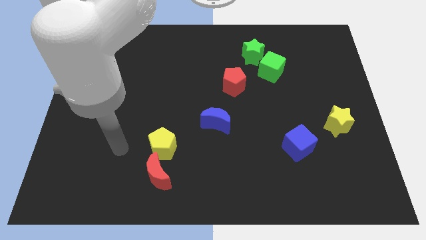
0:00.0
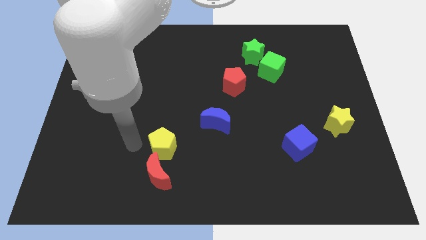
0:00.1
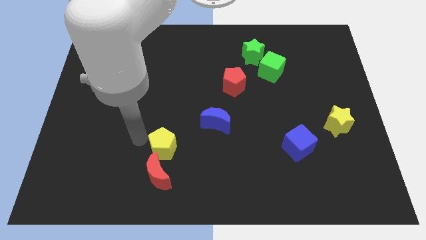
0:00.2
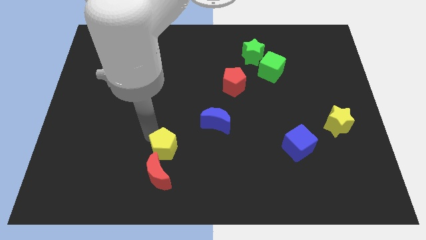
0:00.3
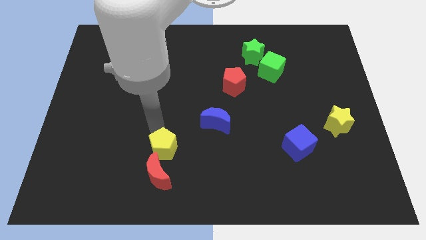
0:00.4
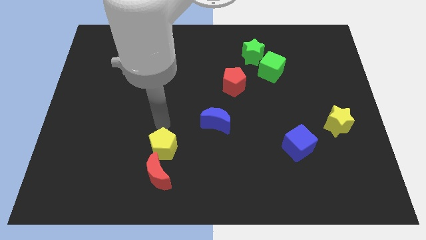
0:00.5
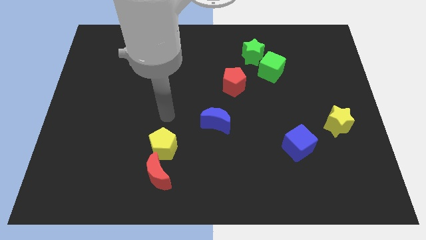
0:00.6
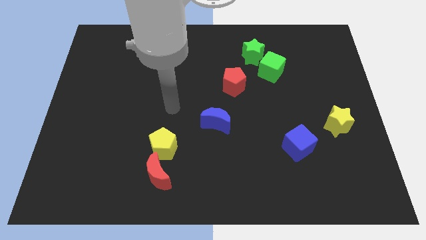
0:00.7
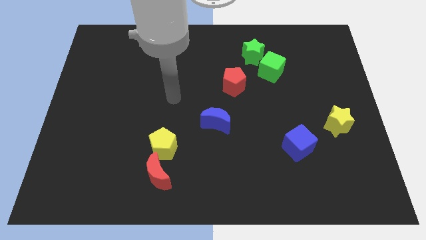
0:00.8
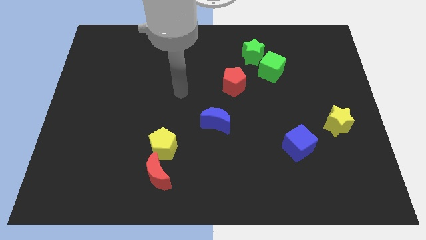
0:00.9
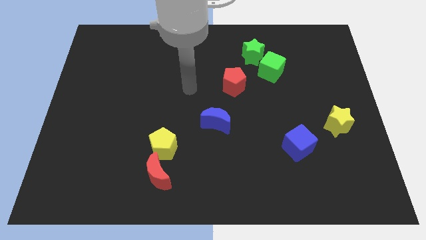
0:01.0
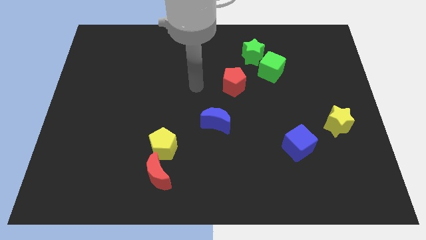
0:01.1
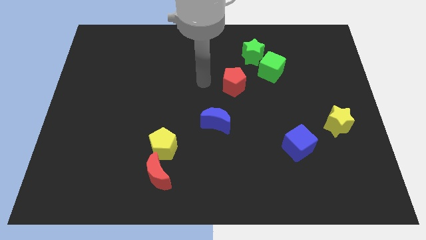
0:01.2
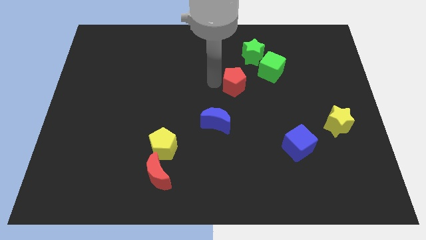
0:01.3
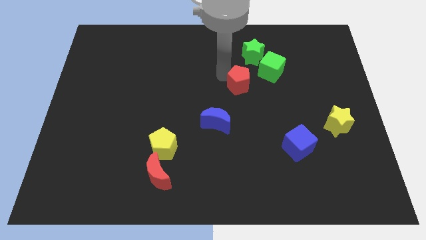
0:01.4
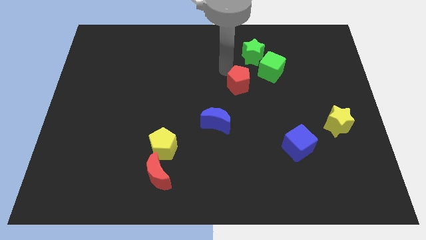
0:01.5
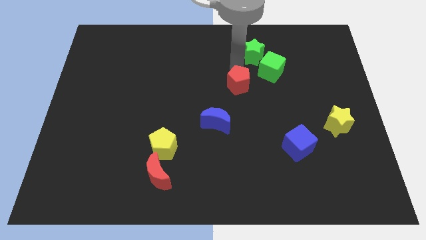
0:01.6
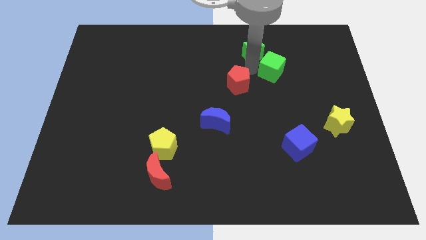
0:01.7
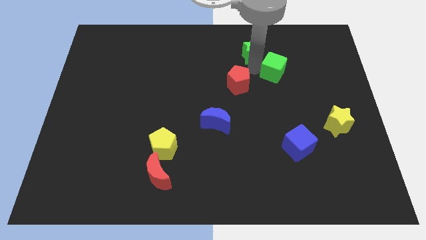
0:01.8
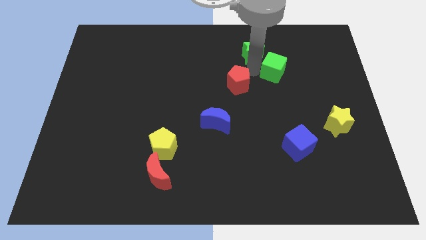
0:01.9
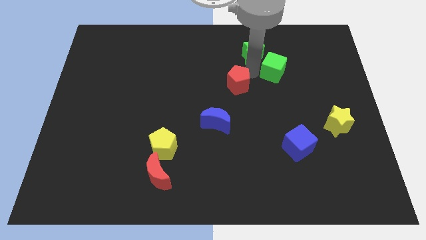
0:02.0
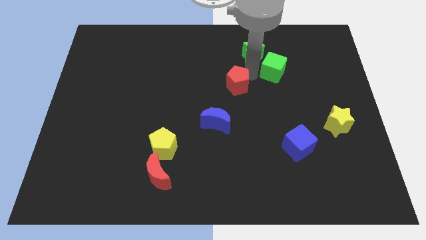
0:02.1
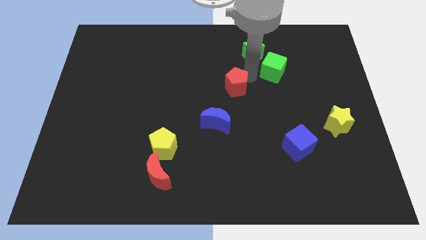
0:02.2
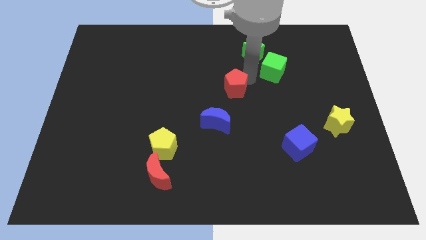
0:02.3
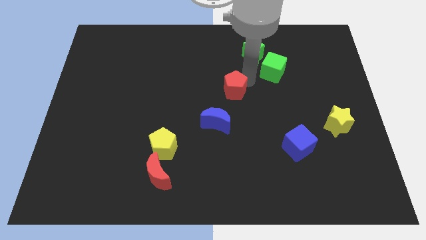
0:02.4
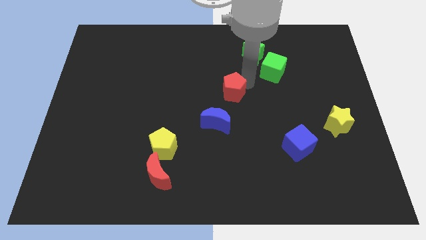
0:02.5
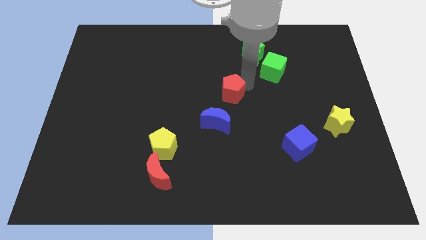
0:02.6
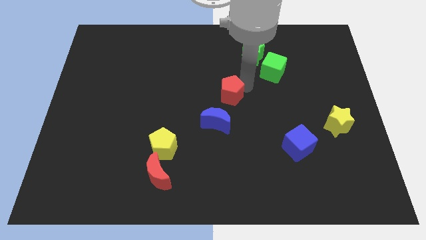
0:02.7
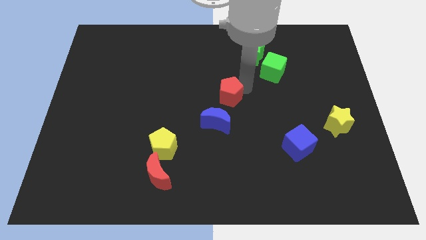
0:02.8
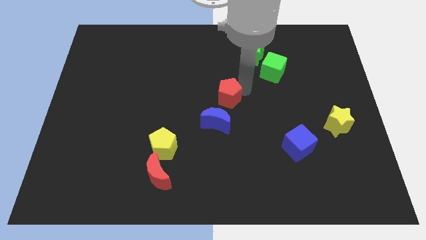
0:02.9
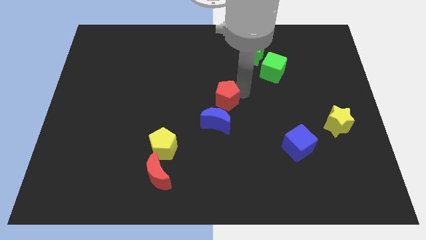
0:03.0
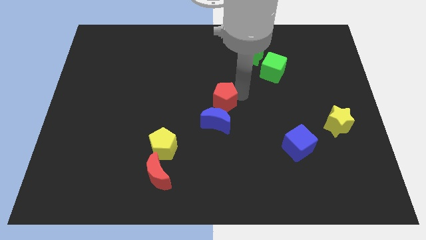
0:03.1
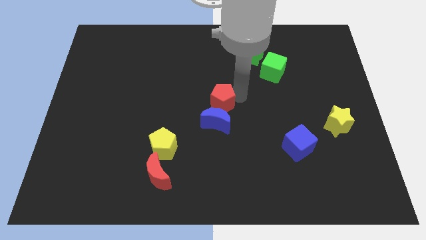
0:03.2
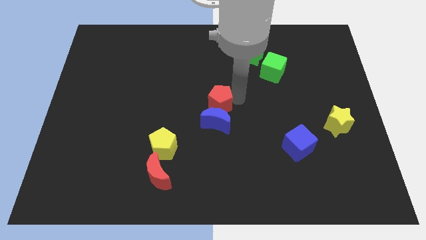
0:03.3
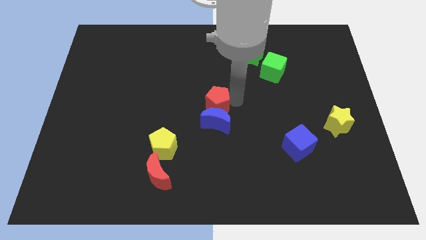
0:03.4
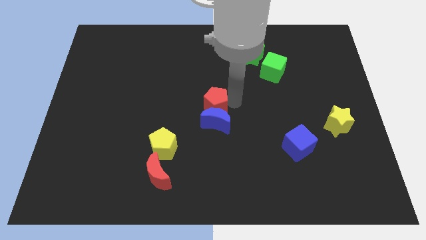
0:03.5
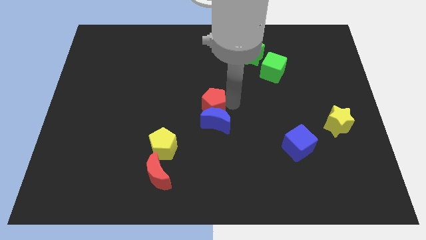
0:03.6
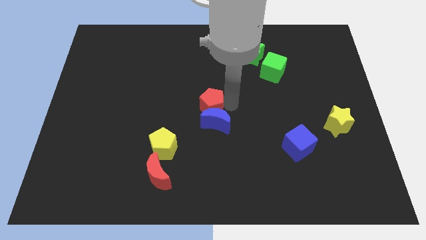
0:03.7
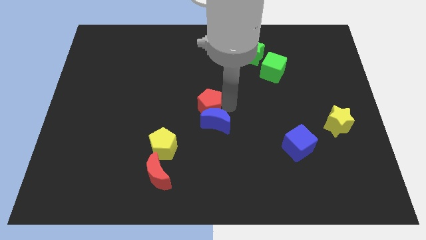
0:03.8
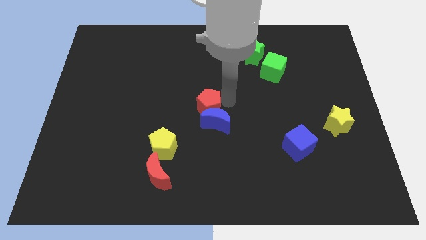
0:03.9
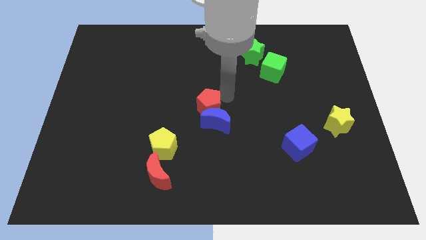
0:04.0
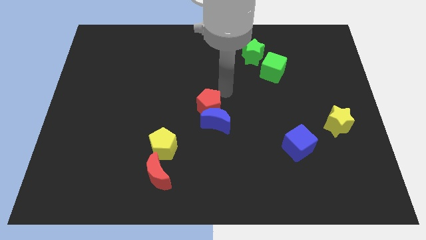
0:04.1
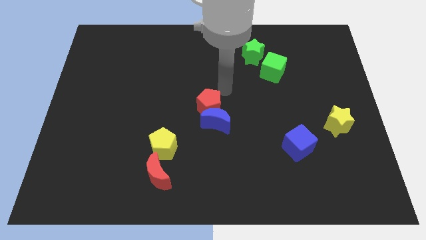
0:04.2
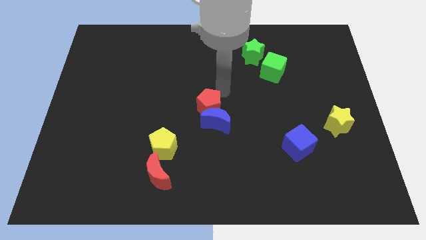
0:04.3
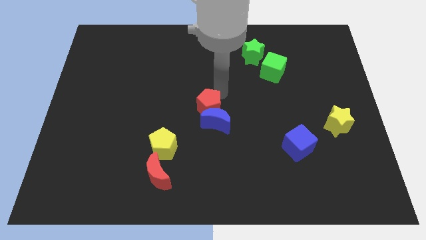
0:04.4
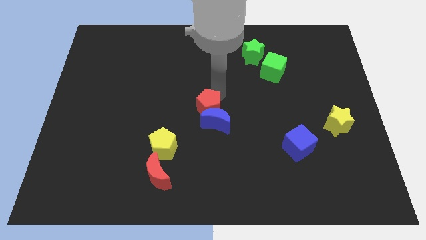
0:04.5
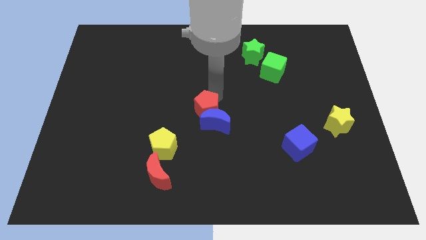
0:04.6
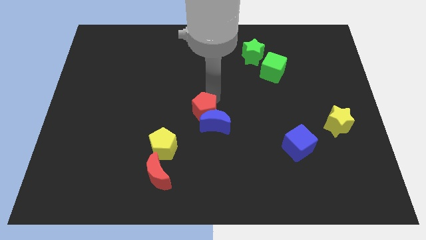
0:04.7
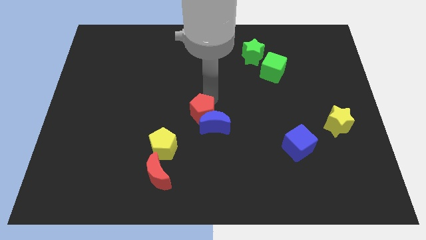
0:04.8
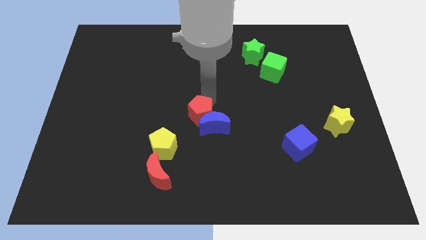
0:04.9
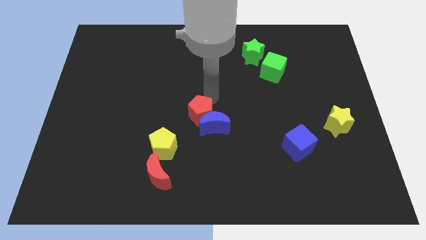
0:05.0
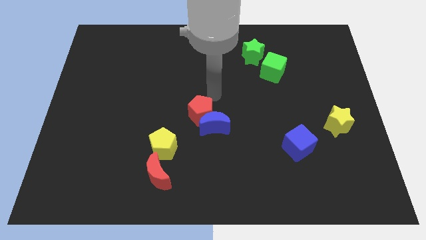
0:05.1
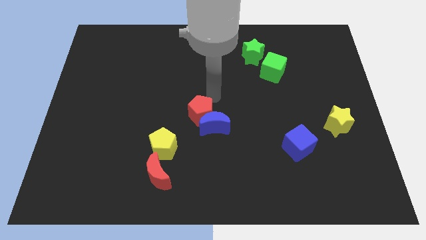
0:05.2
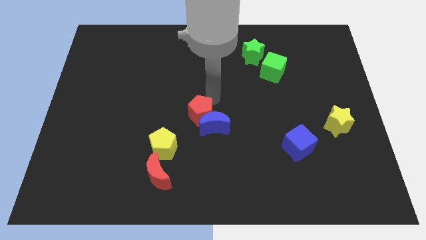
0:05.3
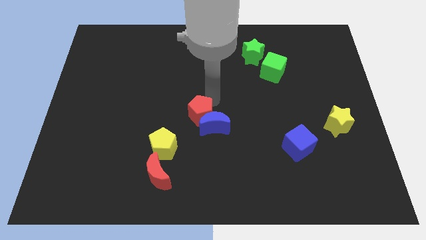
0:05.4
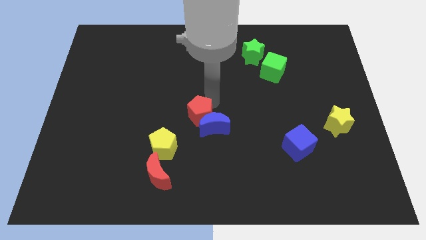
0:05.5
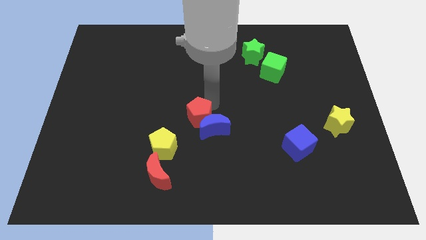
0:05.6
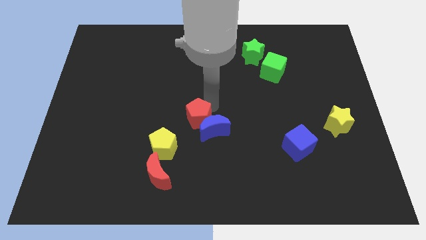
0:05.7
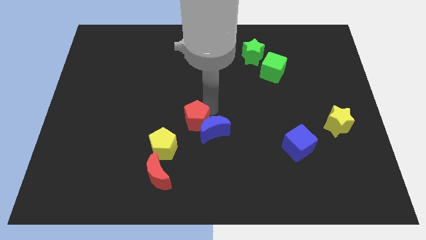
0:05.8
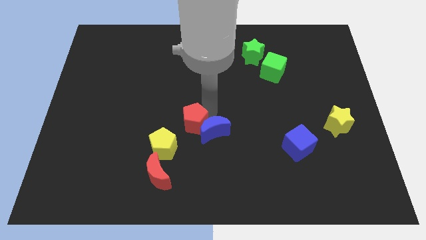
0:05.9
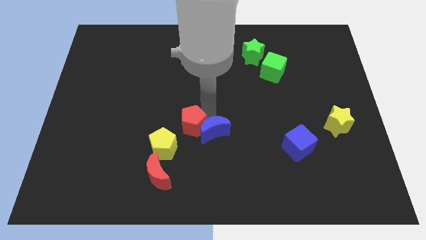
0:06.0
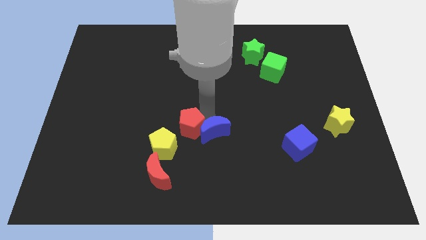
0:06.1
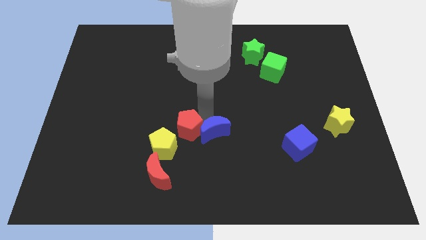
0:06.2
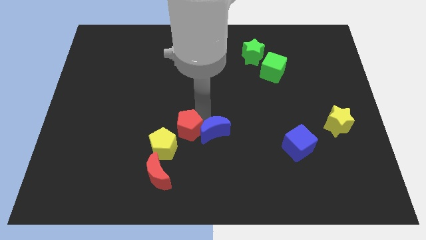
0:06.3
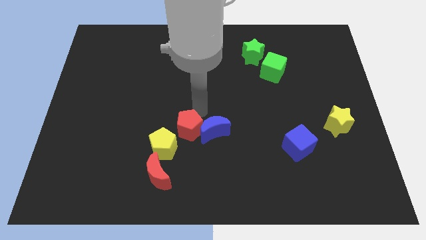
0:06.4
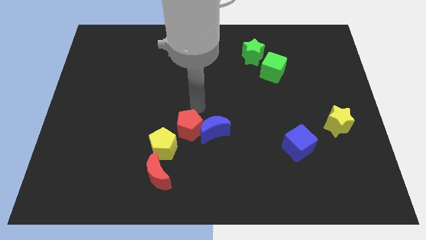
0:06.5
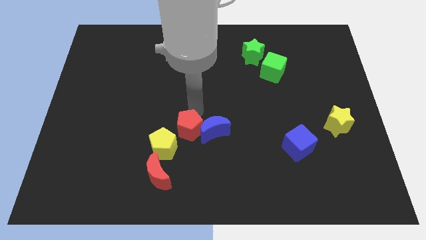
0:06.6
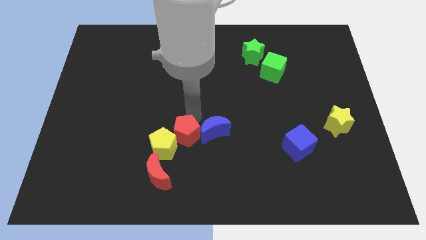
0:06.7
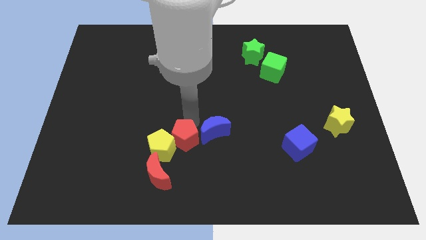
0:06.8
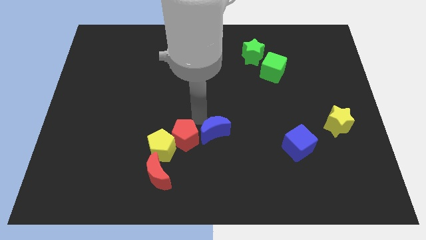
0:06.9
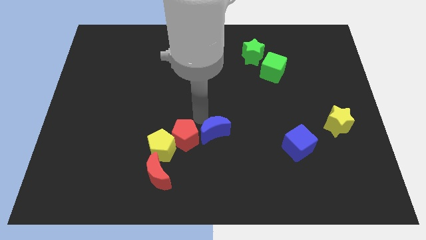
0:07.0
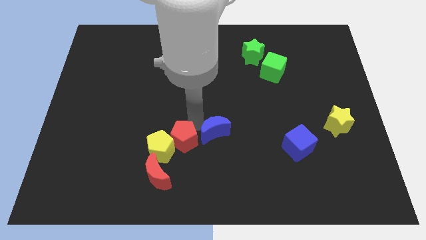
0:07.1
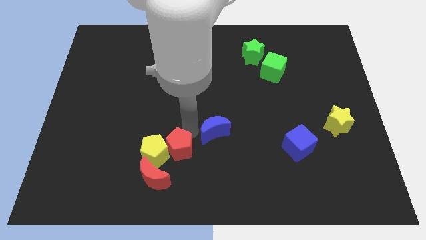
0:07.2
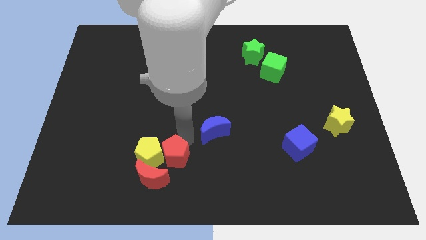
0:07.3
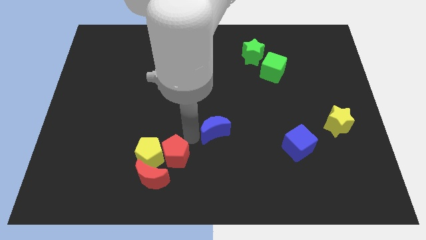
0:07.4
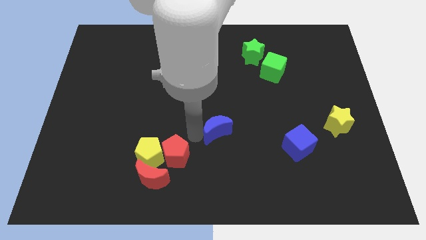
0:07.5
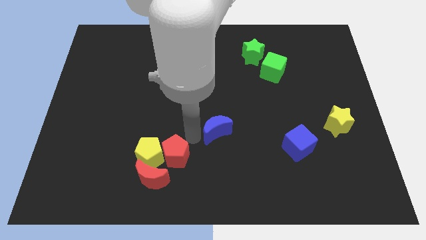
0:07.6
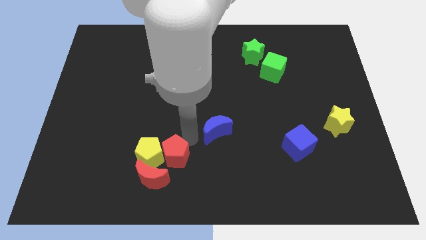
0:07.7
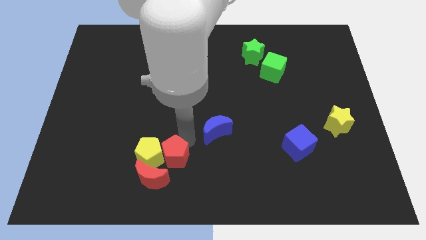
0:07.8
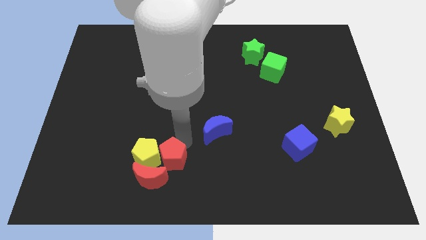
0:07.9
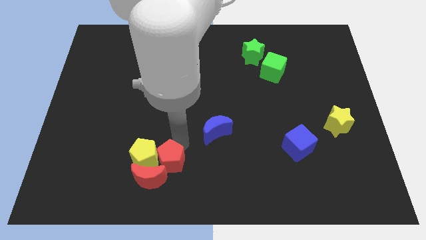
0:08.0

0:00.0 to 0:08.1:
move the red pentagon to the red moon
